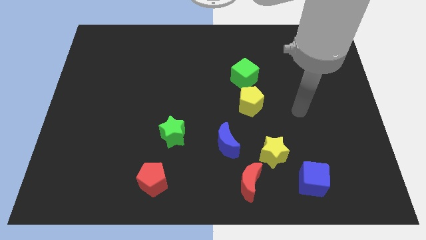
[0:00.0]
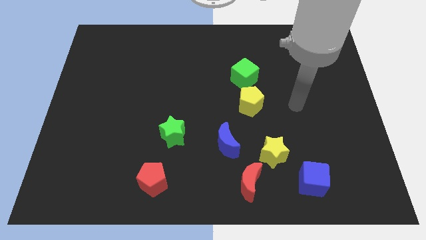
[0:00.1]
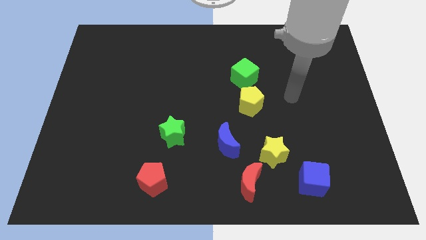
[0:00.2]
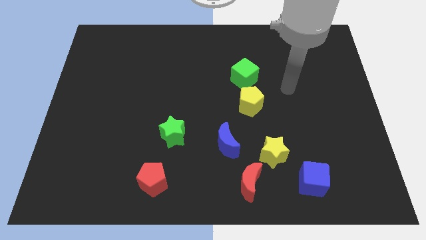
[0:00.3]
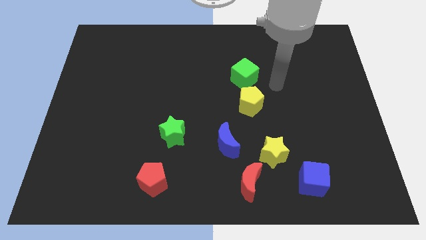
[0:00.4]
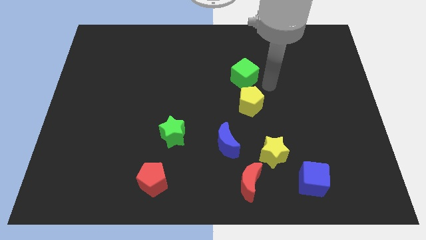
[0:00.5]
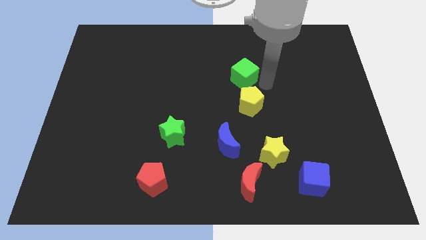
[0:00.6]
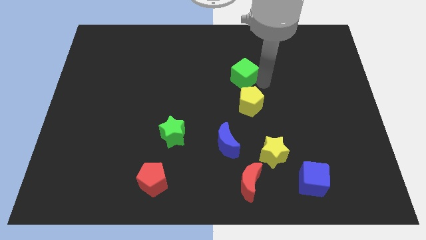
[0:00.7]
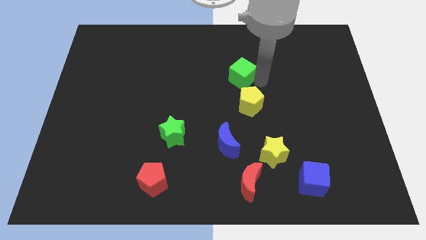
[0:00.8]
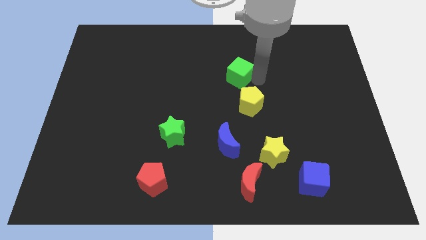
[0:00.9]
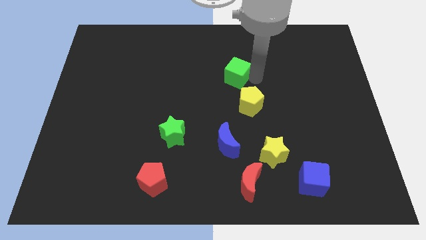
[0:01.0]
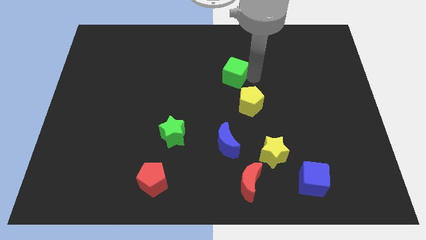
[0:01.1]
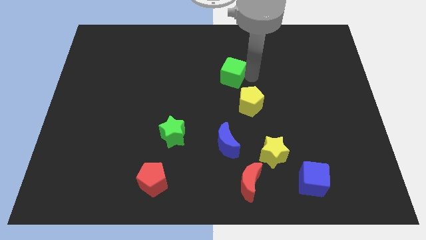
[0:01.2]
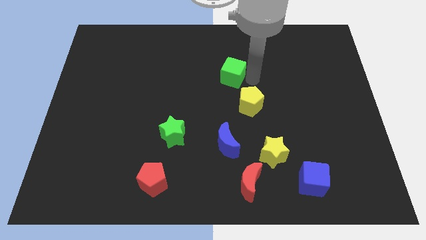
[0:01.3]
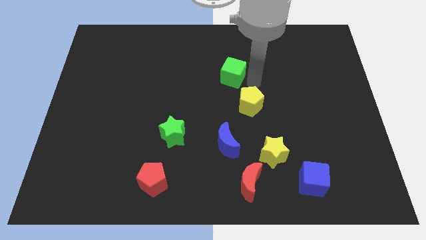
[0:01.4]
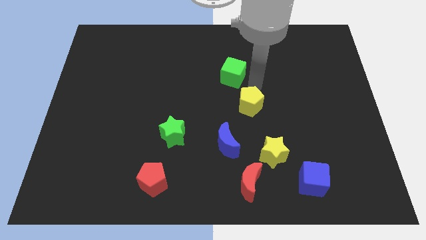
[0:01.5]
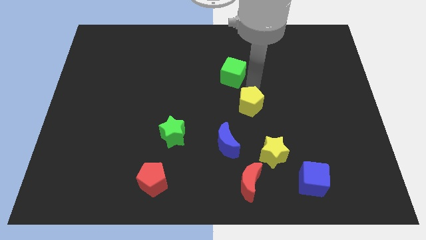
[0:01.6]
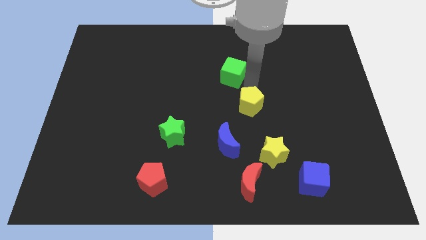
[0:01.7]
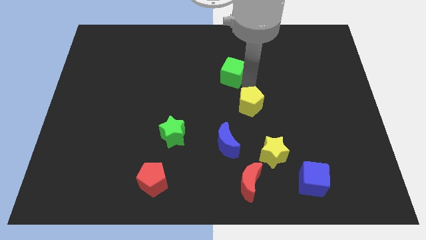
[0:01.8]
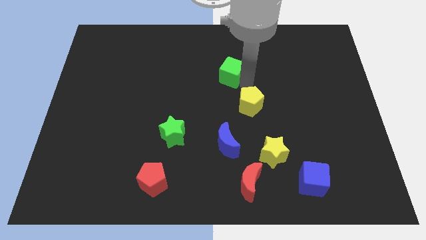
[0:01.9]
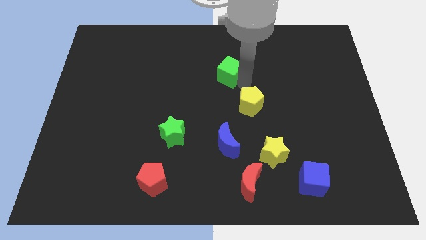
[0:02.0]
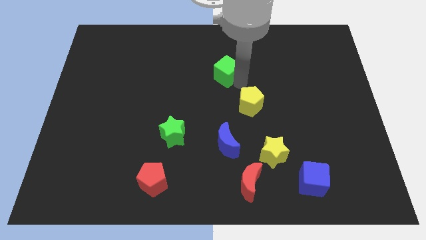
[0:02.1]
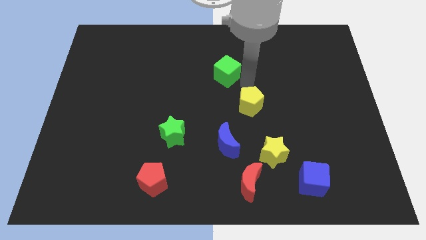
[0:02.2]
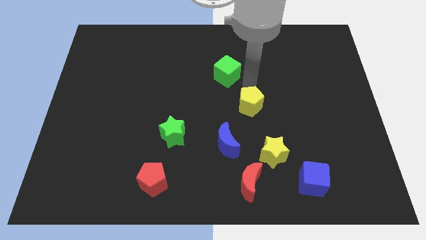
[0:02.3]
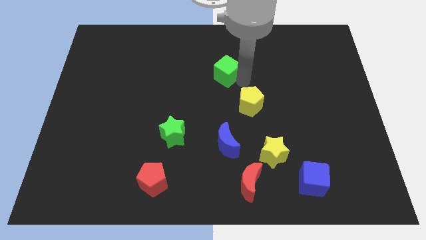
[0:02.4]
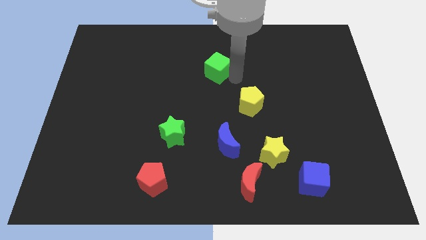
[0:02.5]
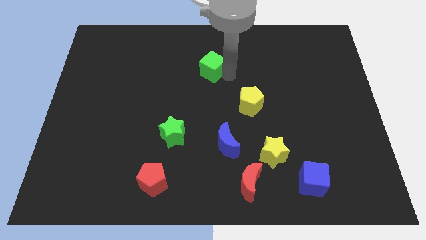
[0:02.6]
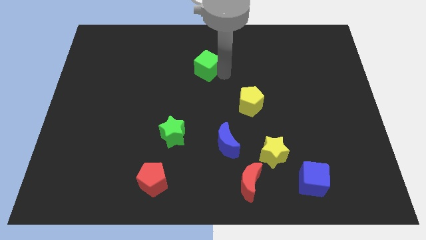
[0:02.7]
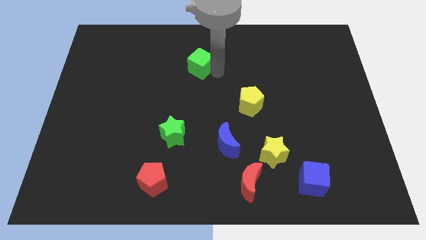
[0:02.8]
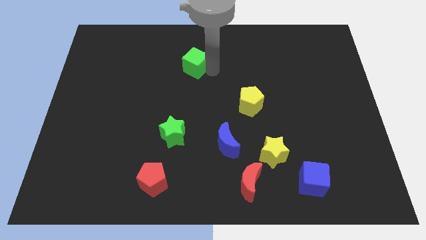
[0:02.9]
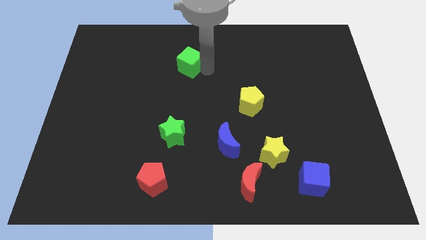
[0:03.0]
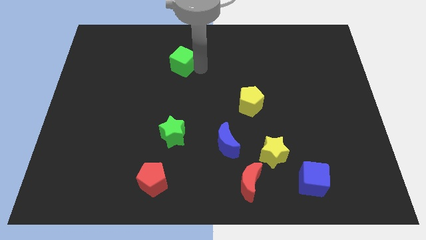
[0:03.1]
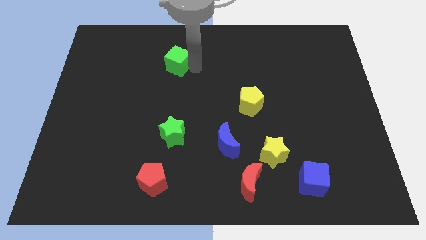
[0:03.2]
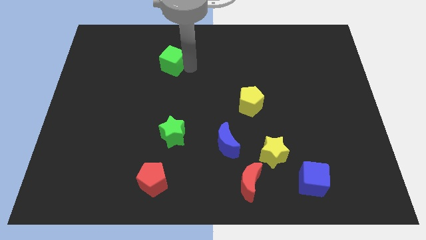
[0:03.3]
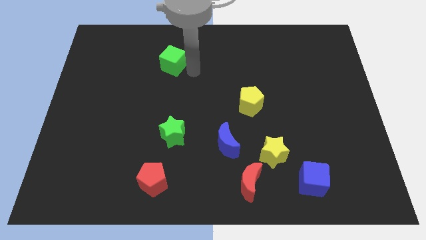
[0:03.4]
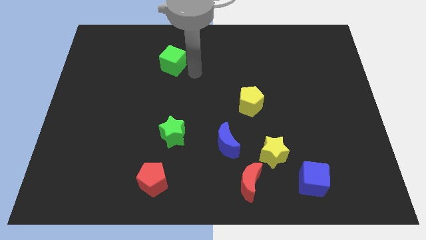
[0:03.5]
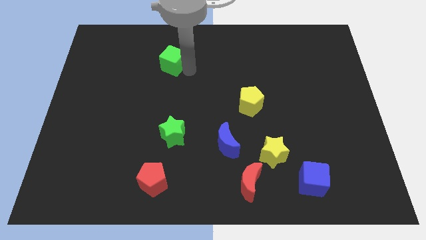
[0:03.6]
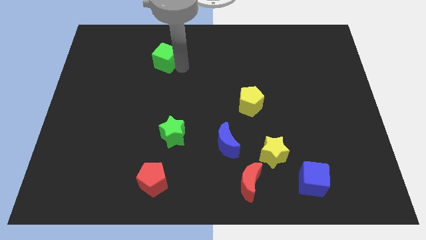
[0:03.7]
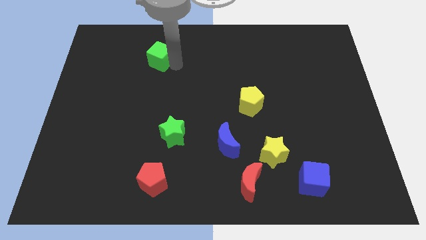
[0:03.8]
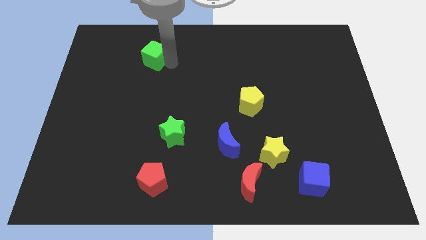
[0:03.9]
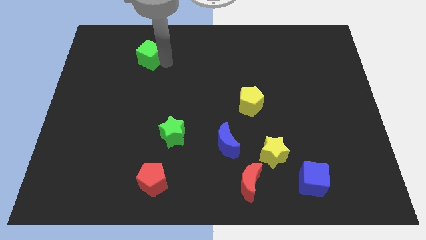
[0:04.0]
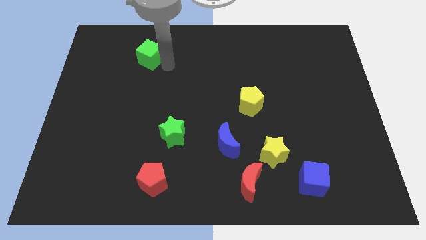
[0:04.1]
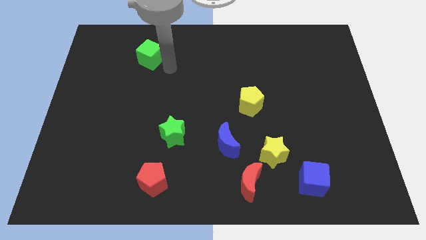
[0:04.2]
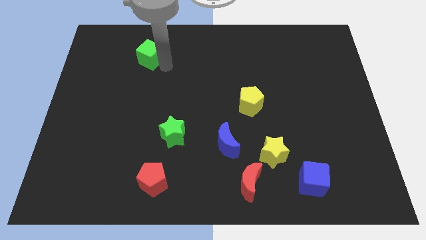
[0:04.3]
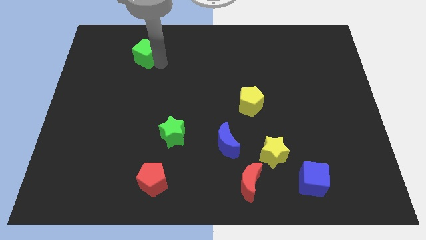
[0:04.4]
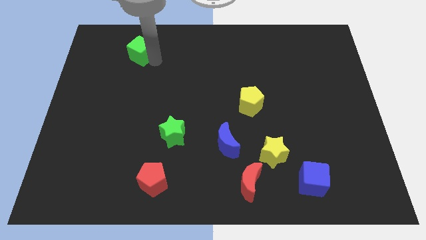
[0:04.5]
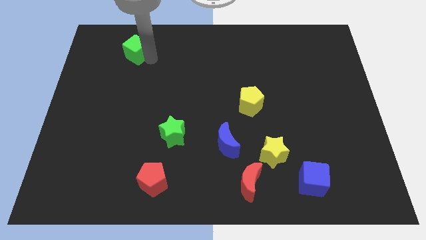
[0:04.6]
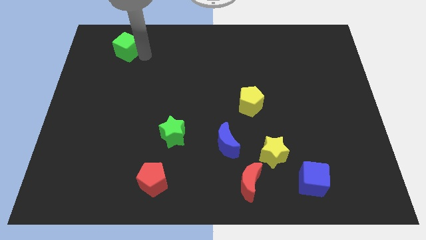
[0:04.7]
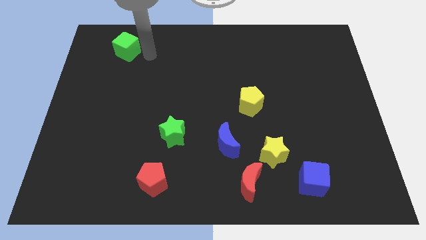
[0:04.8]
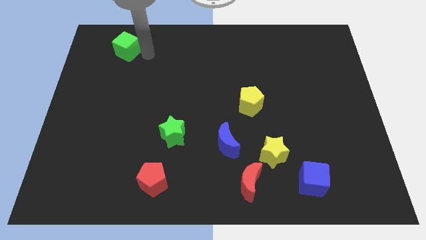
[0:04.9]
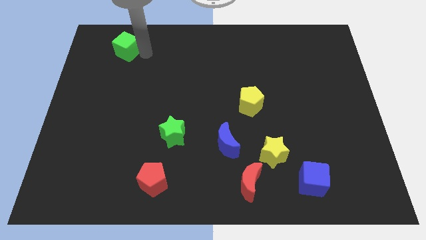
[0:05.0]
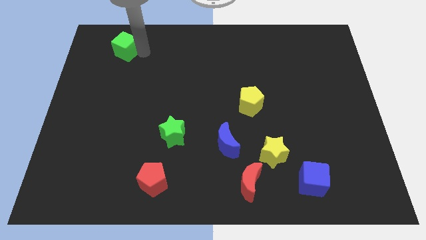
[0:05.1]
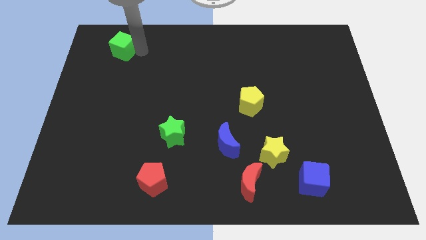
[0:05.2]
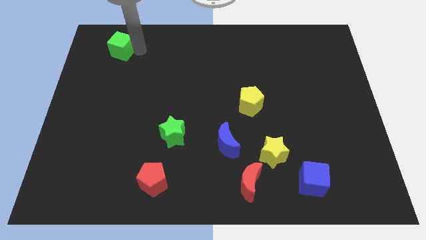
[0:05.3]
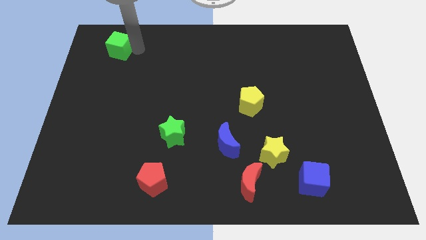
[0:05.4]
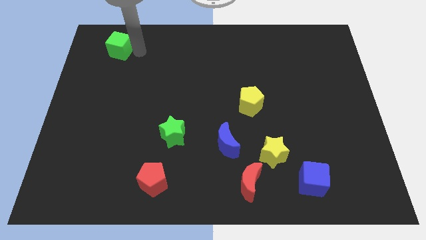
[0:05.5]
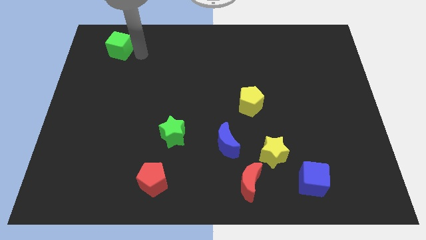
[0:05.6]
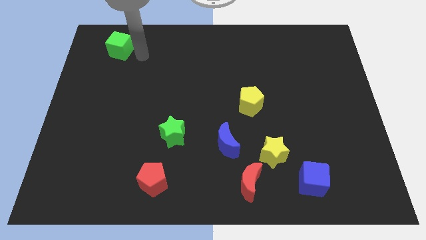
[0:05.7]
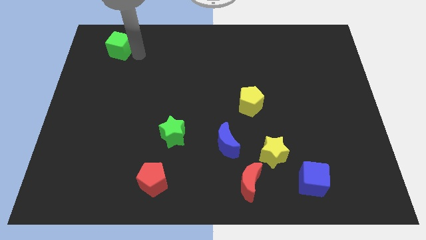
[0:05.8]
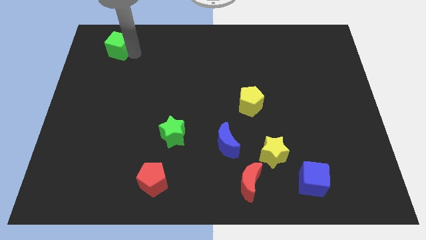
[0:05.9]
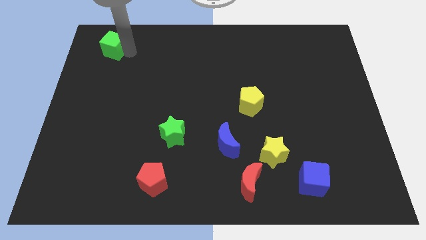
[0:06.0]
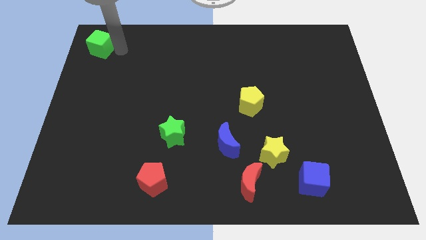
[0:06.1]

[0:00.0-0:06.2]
put the green cube to the upper left corner

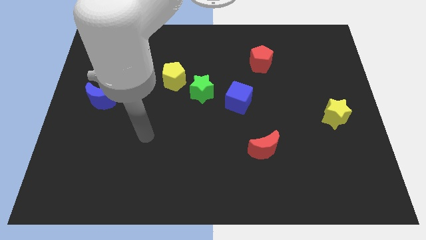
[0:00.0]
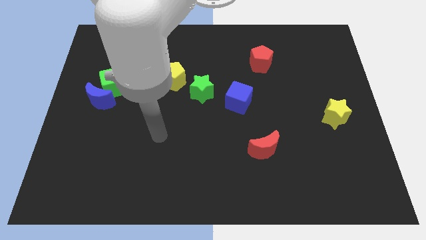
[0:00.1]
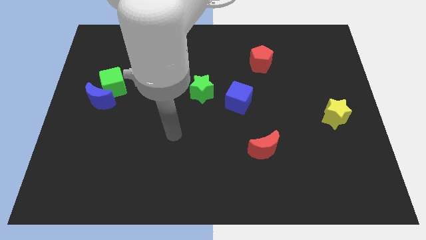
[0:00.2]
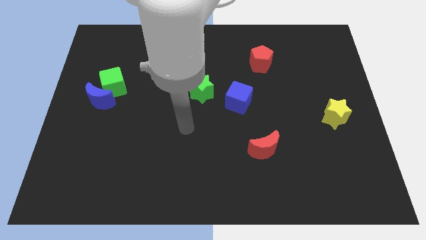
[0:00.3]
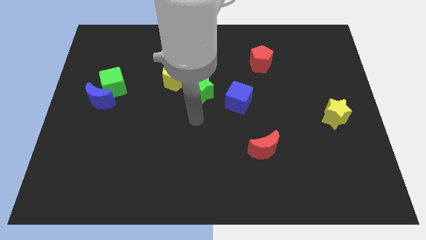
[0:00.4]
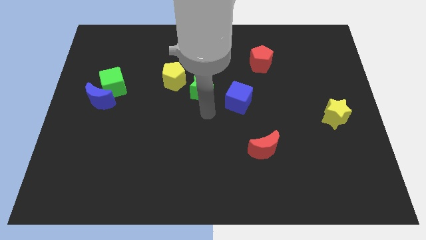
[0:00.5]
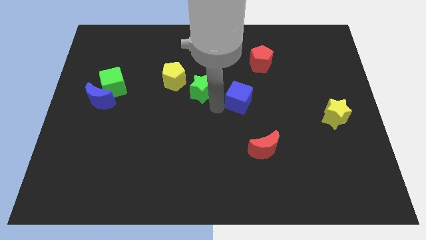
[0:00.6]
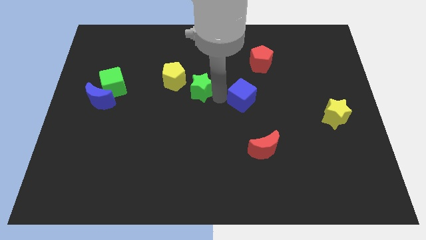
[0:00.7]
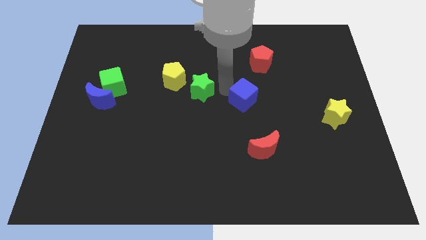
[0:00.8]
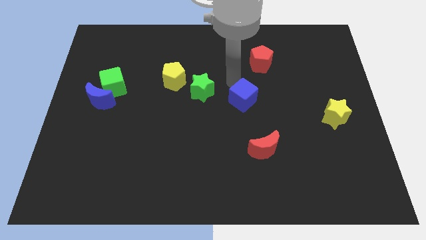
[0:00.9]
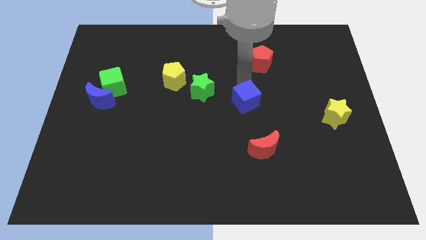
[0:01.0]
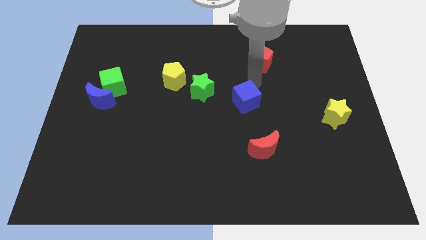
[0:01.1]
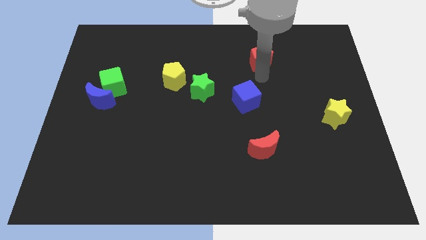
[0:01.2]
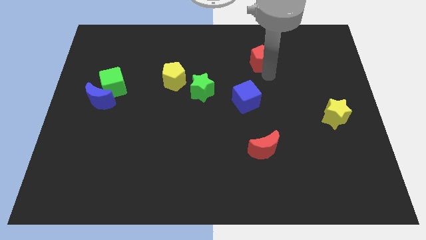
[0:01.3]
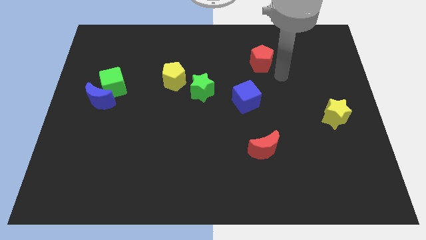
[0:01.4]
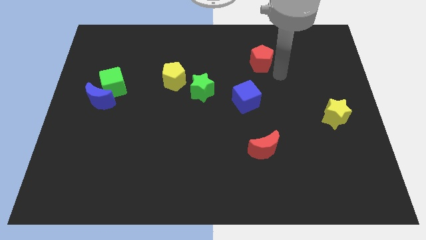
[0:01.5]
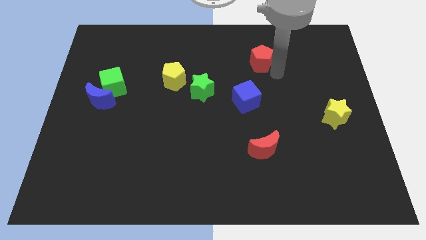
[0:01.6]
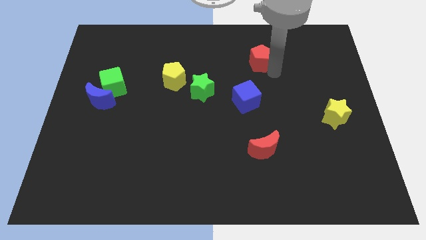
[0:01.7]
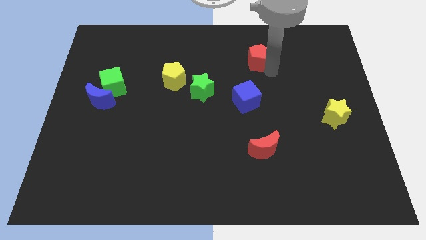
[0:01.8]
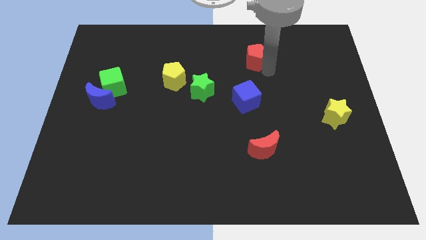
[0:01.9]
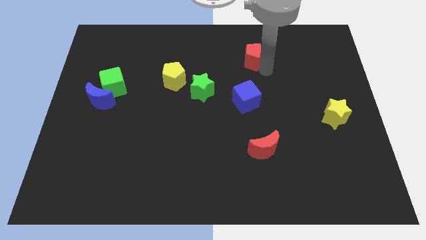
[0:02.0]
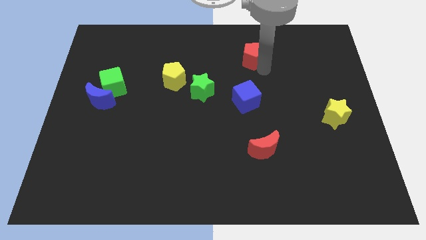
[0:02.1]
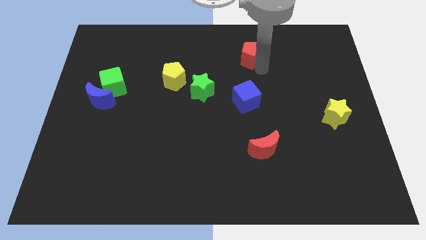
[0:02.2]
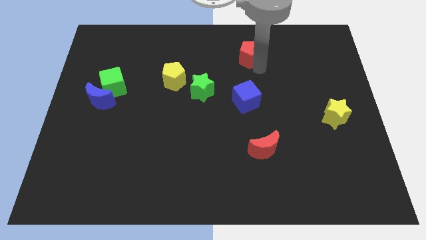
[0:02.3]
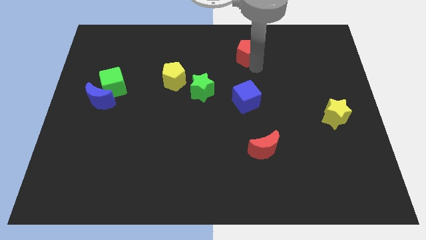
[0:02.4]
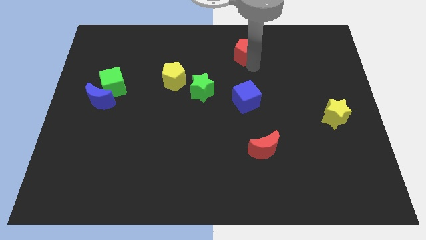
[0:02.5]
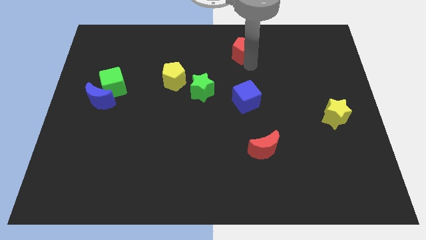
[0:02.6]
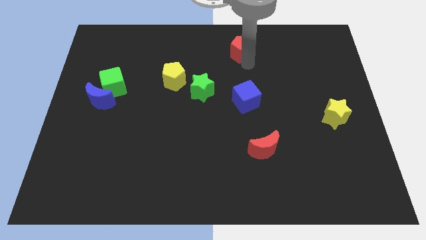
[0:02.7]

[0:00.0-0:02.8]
move the red pentagon to the top side
